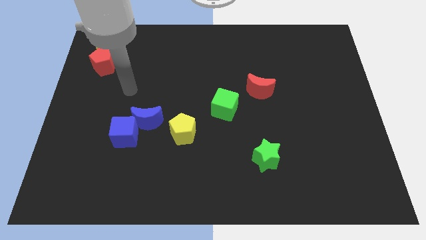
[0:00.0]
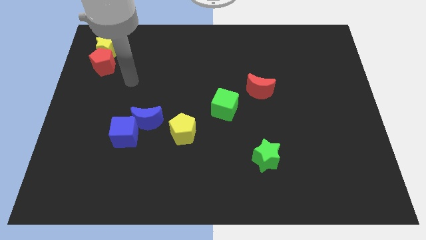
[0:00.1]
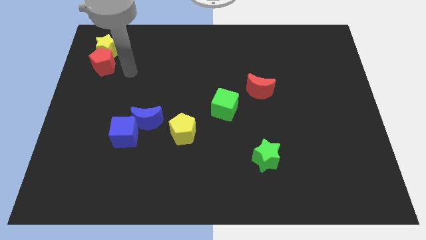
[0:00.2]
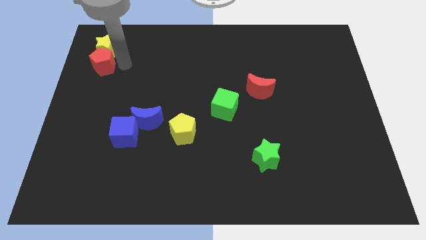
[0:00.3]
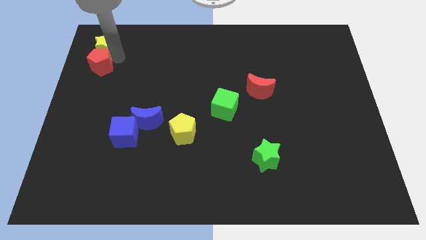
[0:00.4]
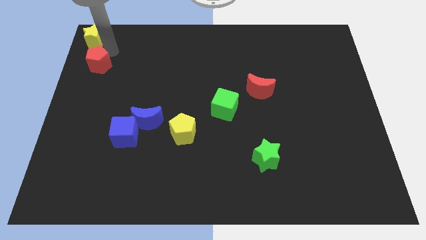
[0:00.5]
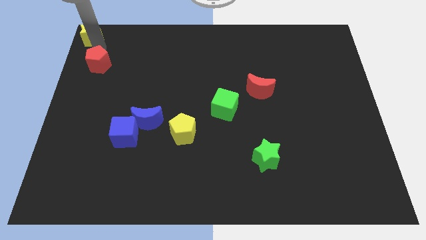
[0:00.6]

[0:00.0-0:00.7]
pull the red pentagon apart from the yellow star

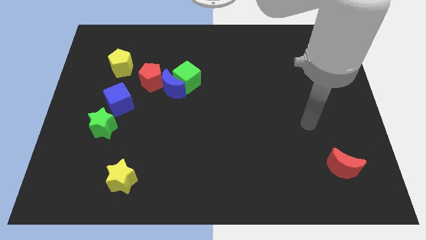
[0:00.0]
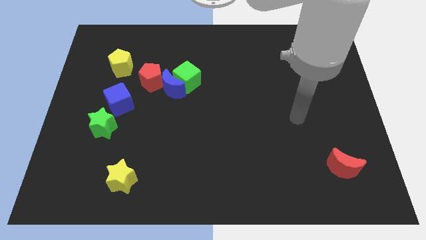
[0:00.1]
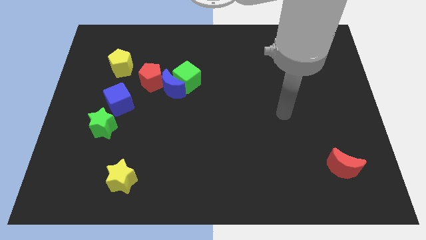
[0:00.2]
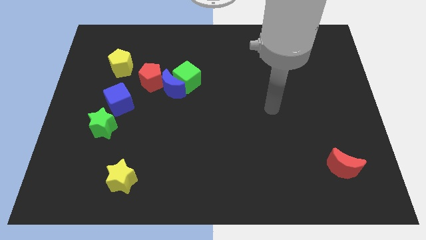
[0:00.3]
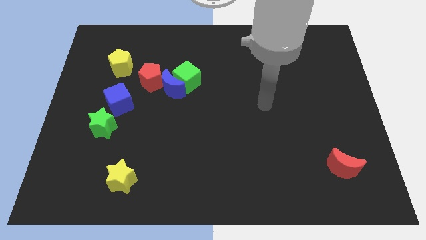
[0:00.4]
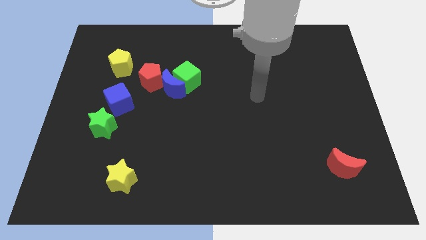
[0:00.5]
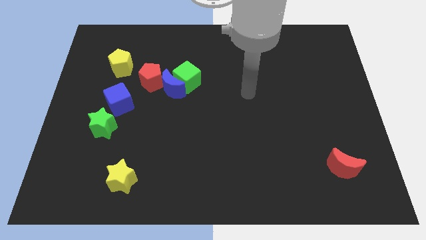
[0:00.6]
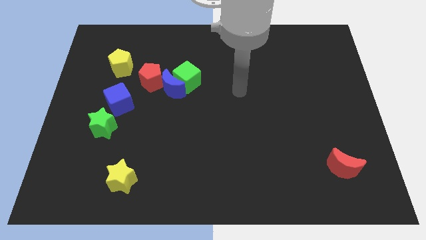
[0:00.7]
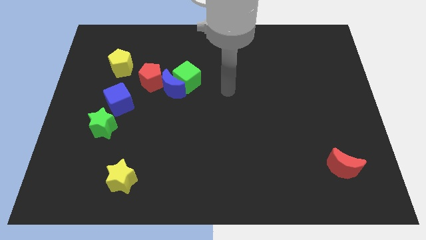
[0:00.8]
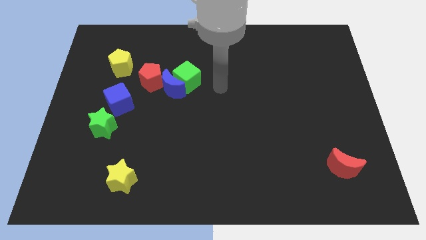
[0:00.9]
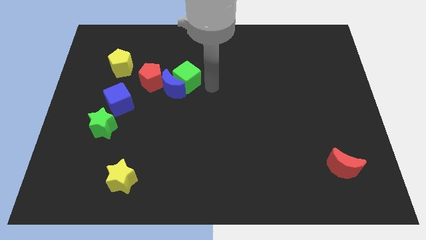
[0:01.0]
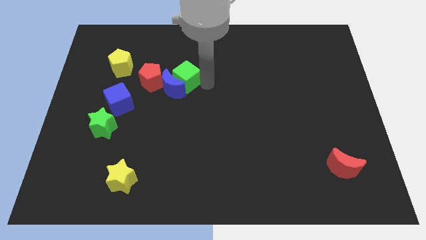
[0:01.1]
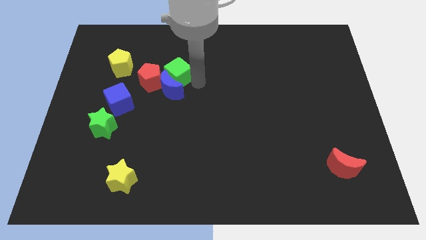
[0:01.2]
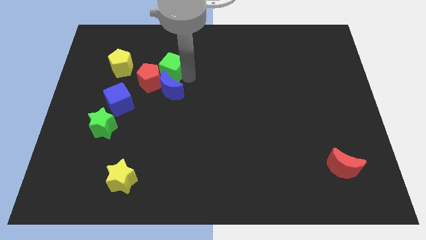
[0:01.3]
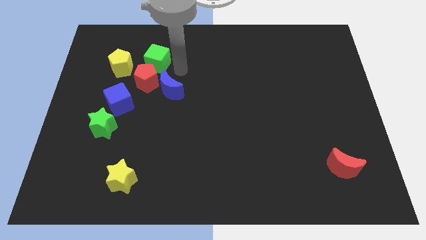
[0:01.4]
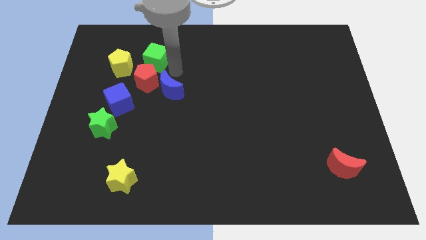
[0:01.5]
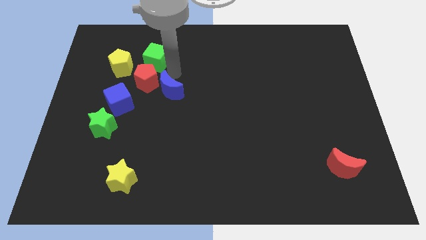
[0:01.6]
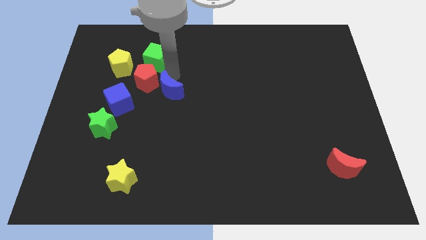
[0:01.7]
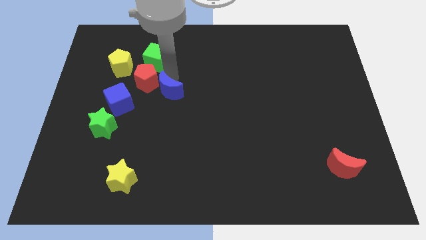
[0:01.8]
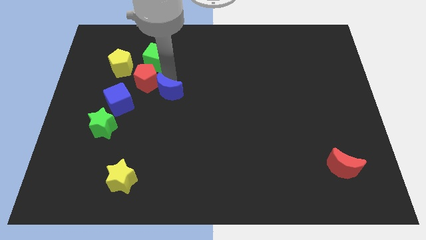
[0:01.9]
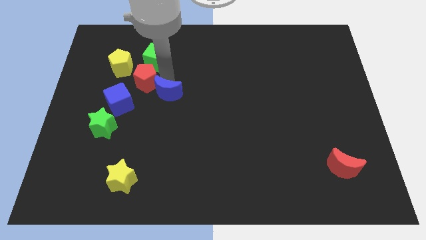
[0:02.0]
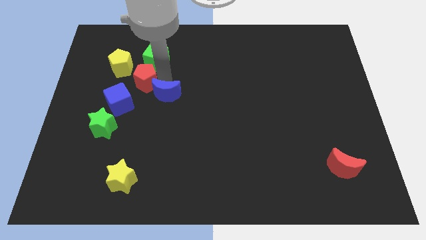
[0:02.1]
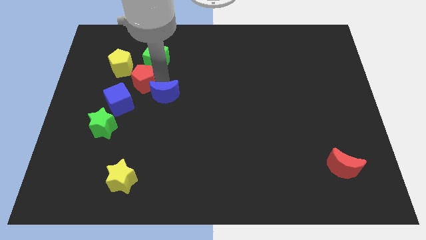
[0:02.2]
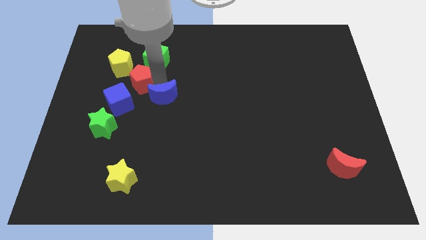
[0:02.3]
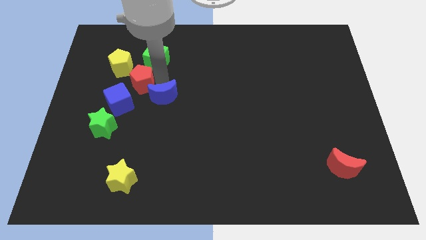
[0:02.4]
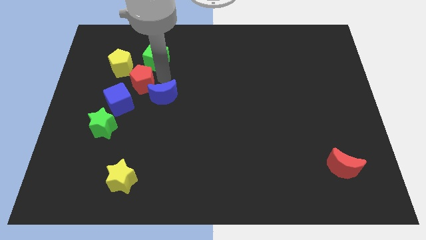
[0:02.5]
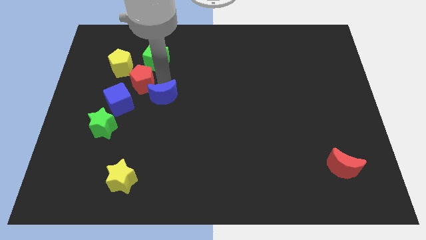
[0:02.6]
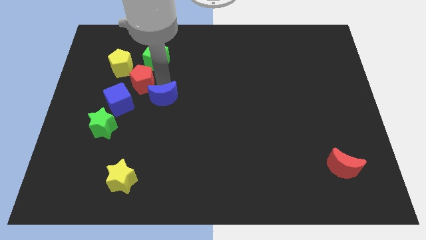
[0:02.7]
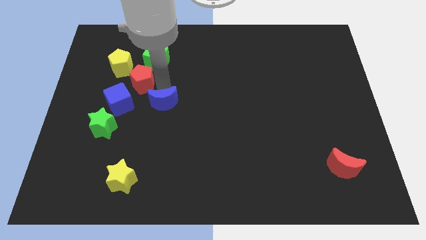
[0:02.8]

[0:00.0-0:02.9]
separate the blue moon from the green cube and red pentagon

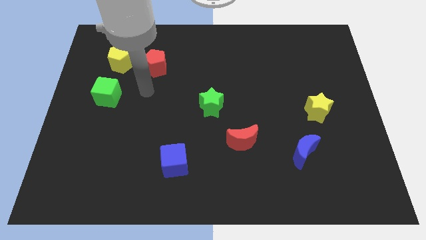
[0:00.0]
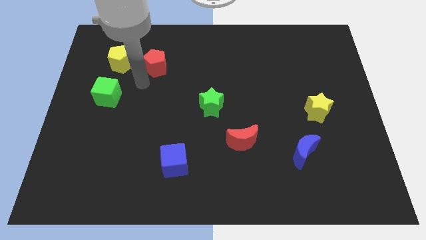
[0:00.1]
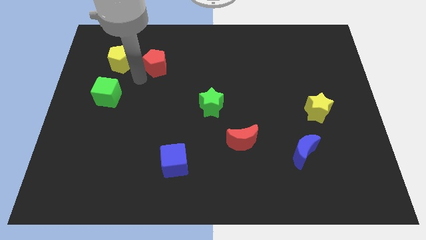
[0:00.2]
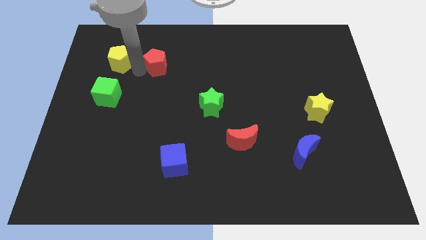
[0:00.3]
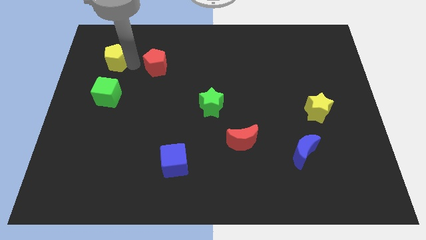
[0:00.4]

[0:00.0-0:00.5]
pull the red pentagon apart from the yellow pentagon

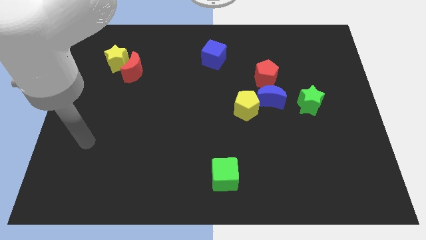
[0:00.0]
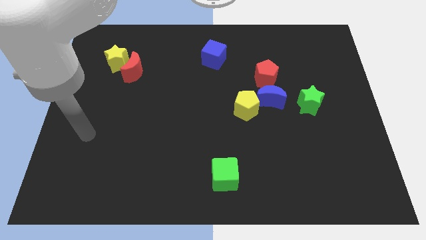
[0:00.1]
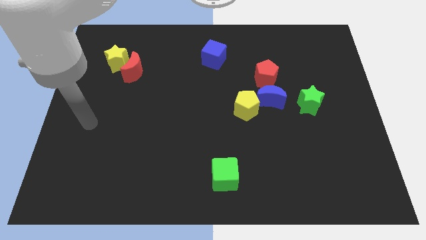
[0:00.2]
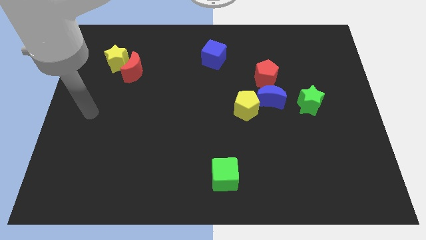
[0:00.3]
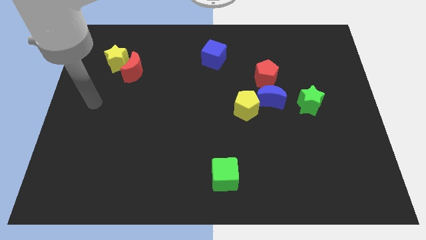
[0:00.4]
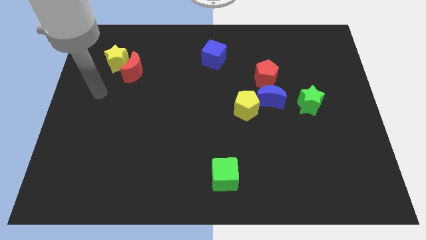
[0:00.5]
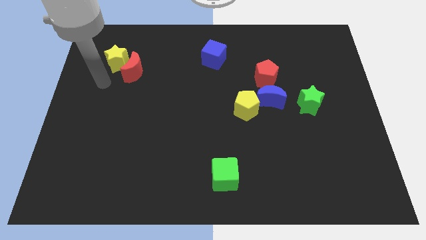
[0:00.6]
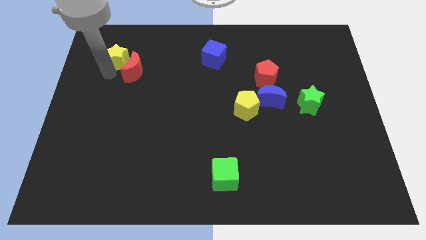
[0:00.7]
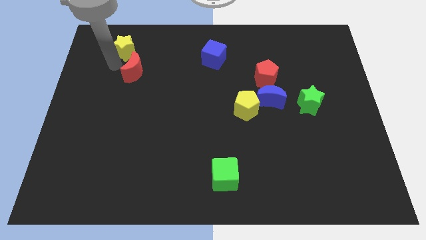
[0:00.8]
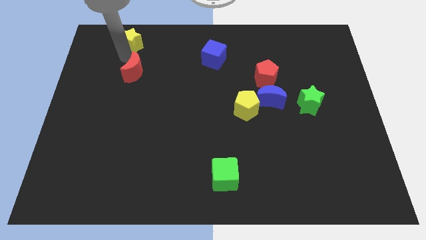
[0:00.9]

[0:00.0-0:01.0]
pull the red moon apart from the yellow star

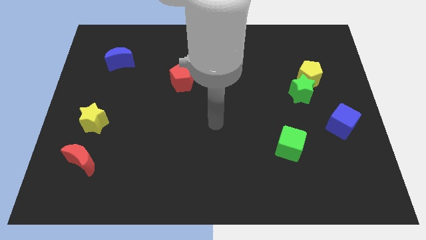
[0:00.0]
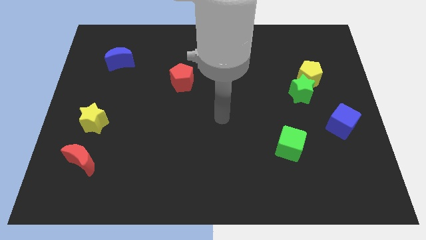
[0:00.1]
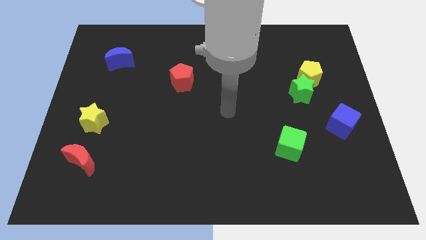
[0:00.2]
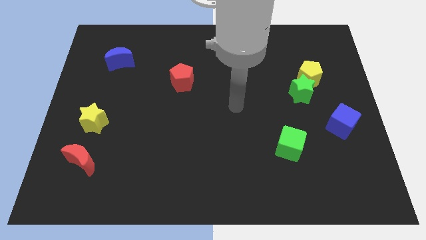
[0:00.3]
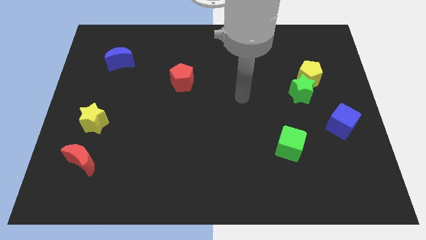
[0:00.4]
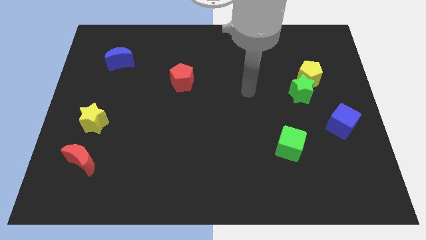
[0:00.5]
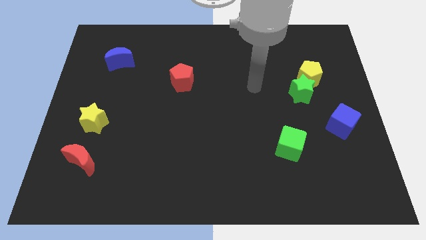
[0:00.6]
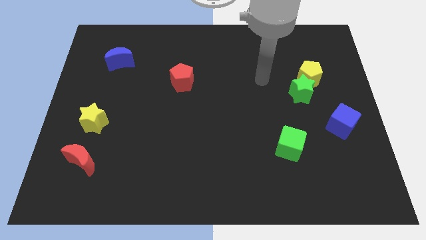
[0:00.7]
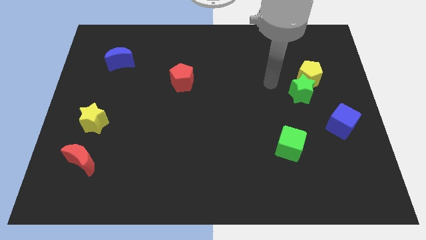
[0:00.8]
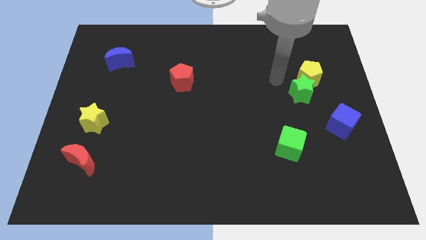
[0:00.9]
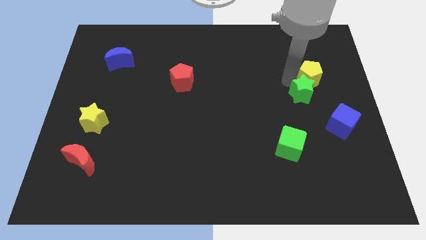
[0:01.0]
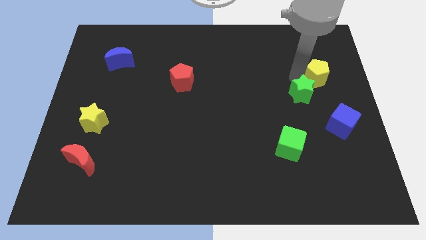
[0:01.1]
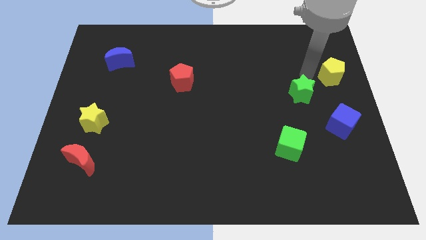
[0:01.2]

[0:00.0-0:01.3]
pull the green star apart from the yellow pentagon

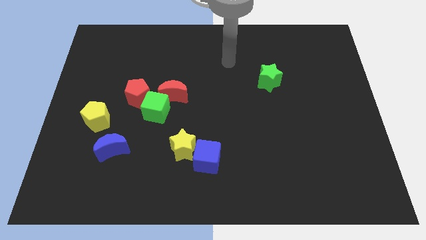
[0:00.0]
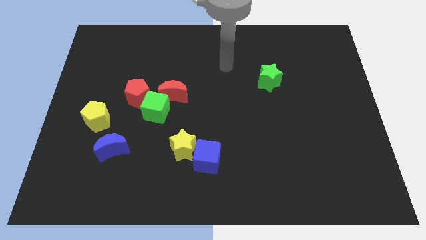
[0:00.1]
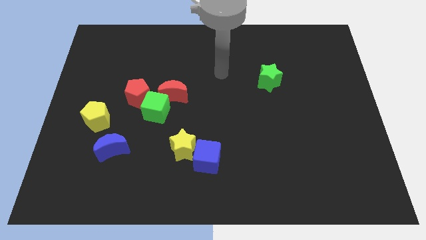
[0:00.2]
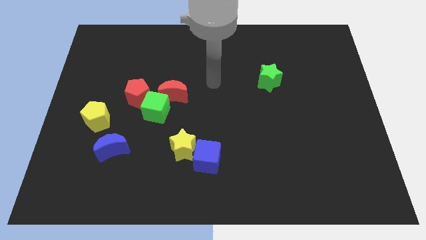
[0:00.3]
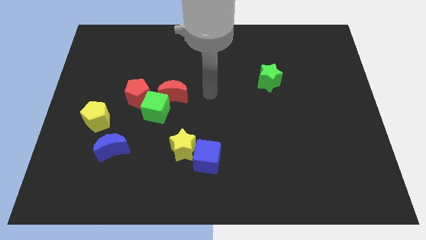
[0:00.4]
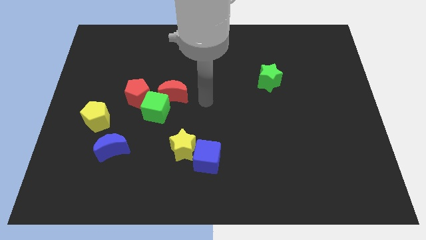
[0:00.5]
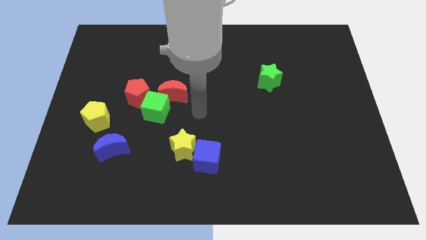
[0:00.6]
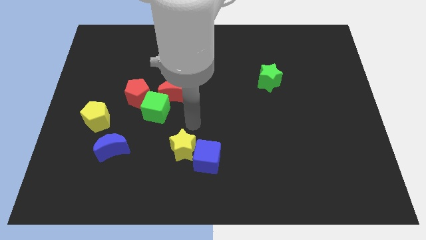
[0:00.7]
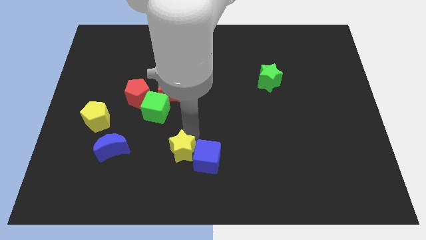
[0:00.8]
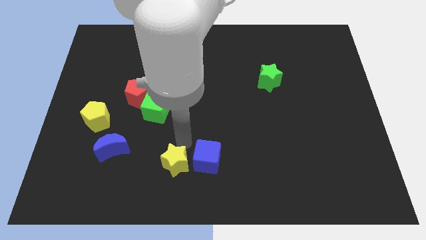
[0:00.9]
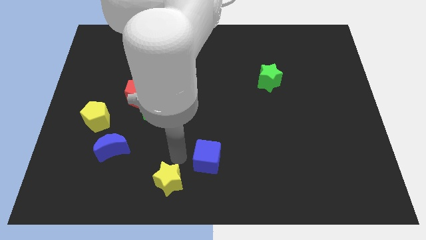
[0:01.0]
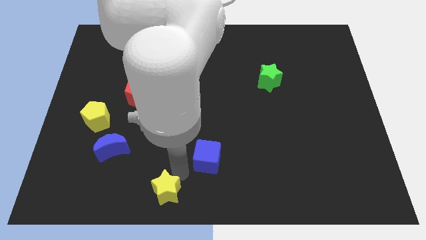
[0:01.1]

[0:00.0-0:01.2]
move the blue cube away from the yellow star

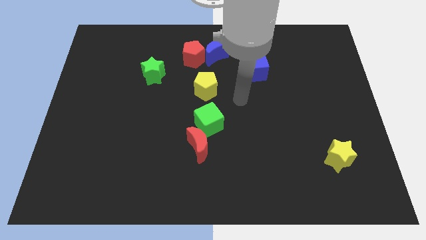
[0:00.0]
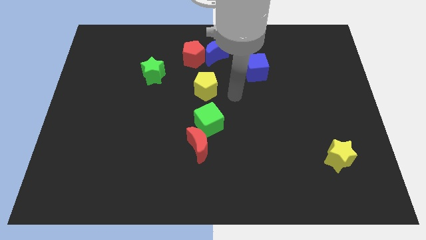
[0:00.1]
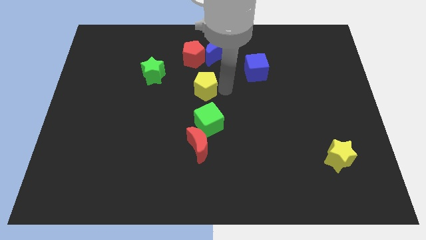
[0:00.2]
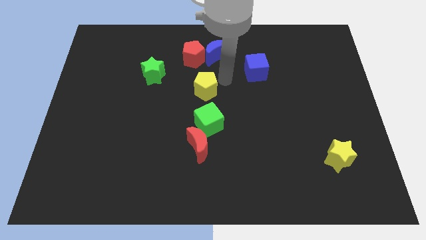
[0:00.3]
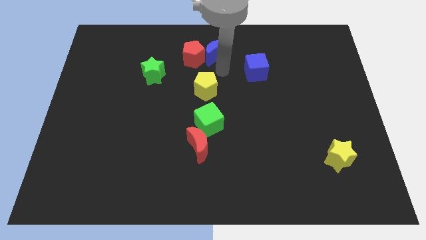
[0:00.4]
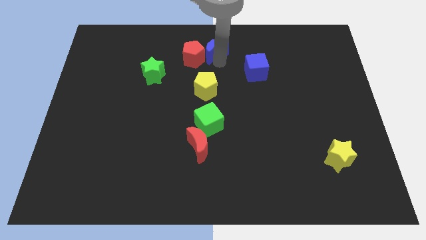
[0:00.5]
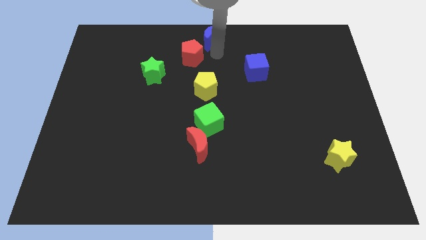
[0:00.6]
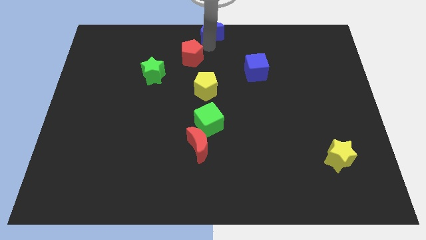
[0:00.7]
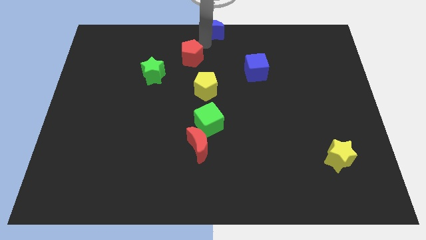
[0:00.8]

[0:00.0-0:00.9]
move the red pentagon away from the blue moon

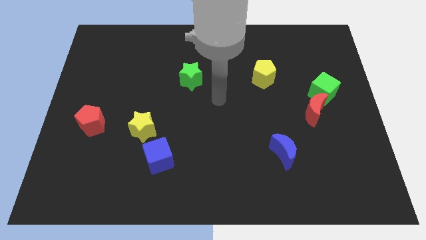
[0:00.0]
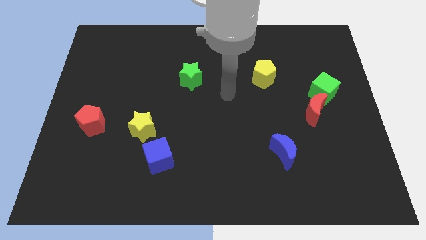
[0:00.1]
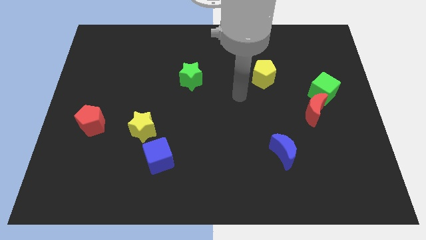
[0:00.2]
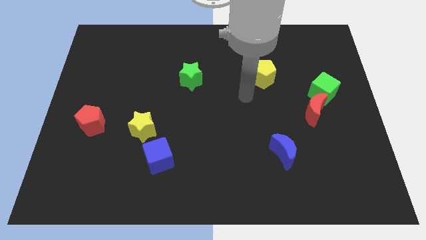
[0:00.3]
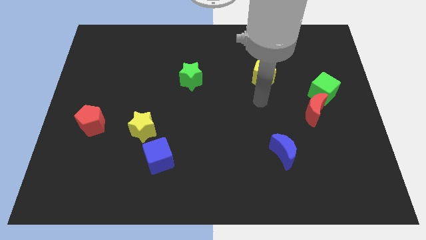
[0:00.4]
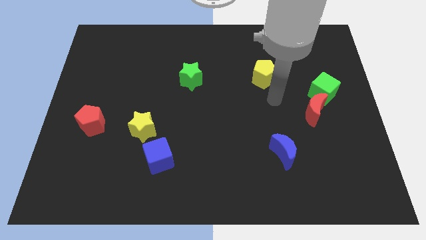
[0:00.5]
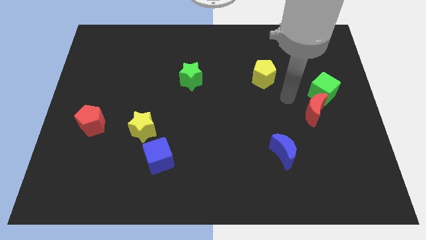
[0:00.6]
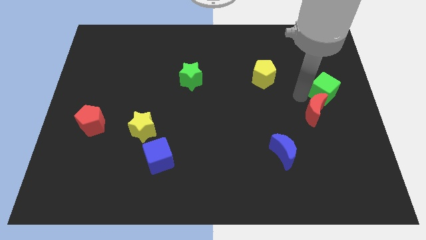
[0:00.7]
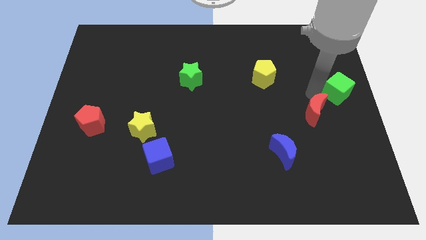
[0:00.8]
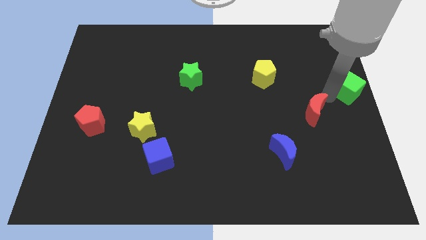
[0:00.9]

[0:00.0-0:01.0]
move the red moon away from the green cube
